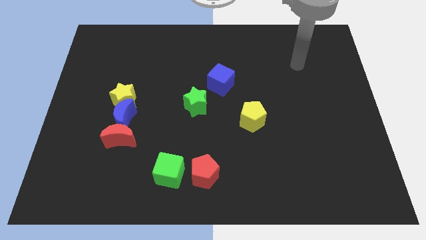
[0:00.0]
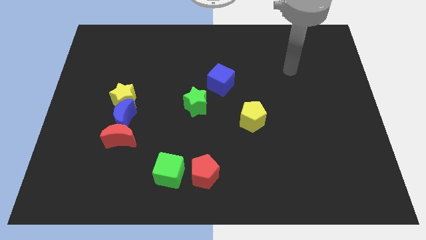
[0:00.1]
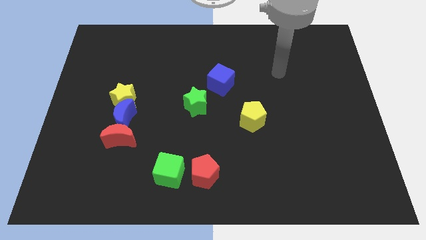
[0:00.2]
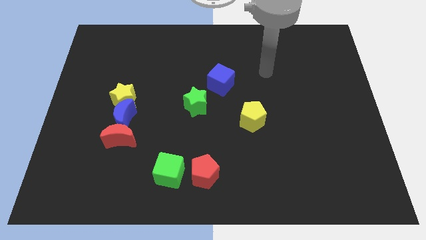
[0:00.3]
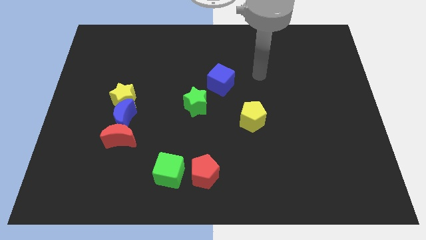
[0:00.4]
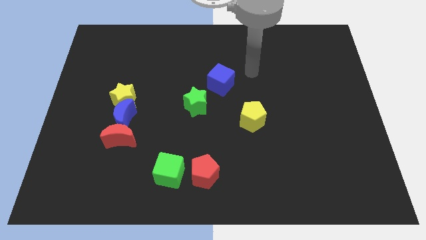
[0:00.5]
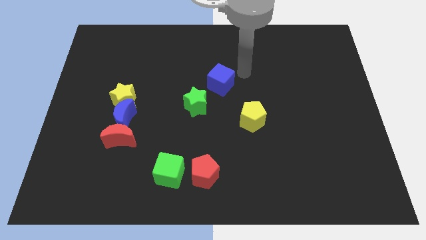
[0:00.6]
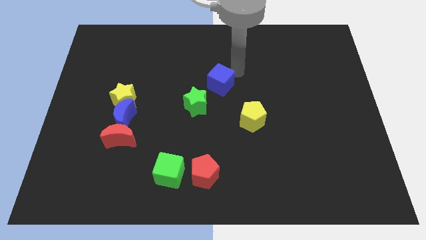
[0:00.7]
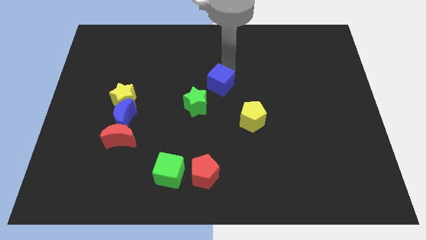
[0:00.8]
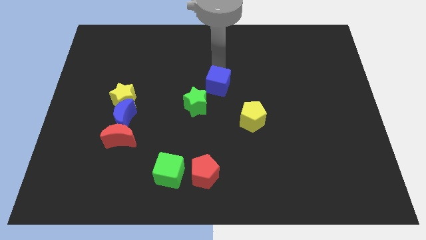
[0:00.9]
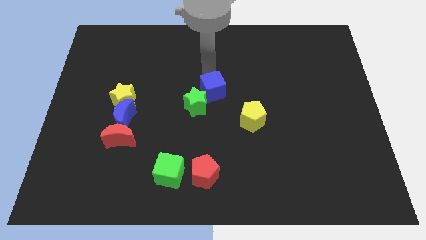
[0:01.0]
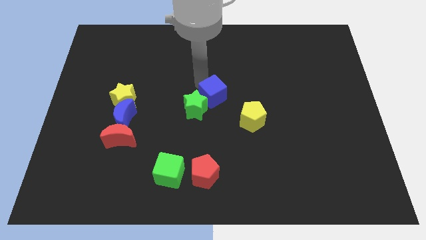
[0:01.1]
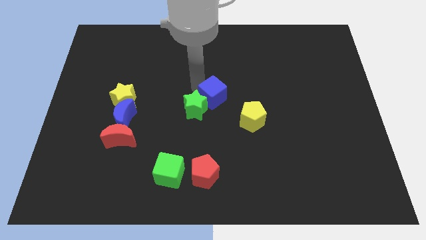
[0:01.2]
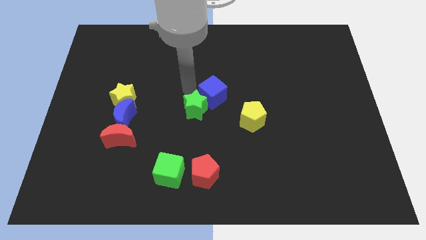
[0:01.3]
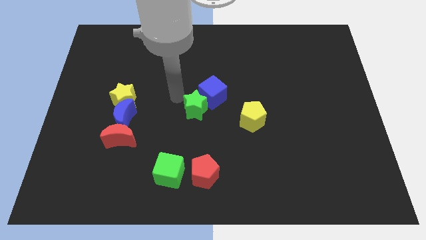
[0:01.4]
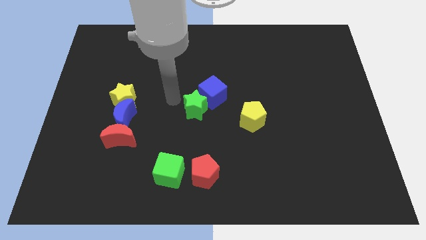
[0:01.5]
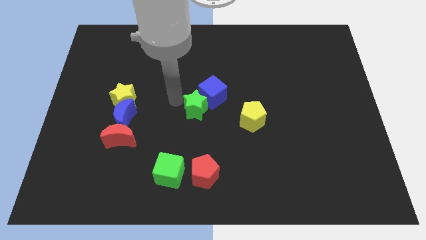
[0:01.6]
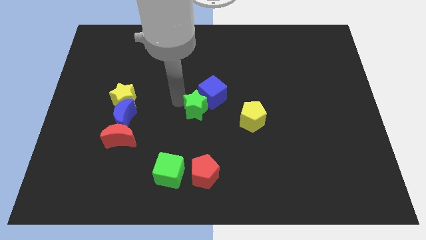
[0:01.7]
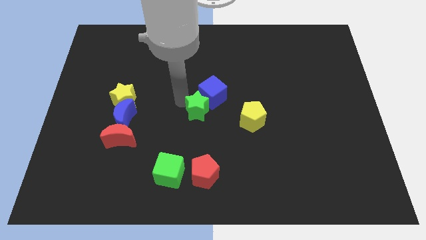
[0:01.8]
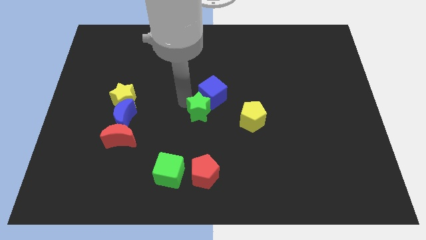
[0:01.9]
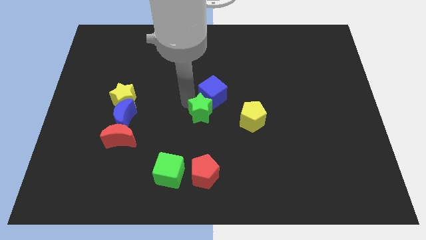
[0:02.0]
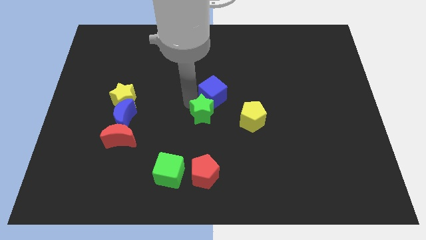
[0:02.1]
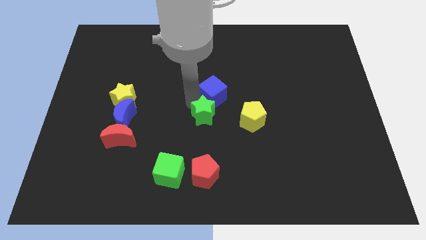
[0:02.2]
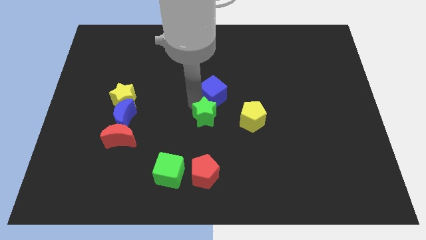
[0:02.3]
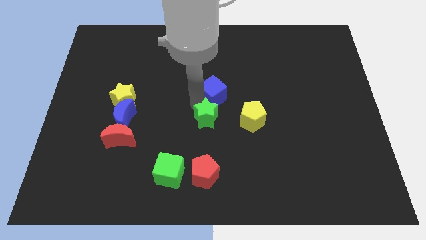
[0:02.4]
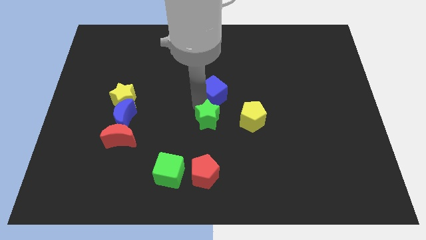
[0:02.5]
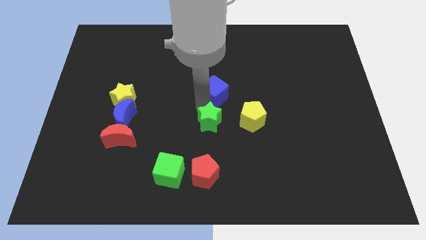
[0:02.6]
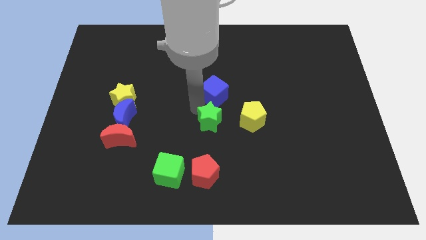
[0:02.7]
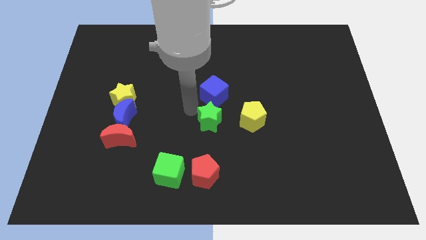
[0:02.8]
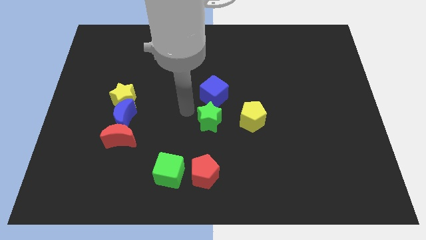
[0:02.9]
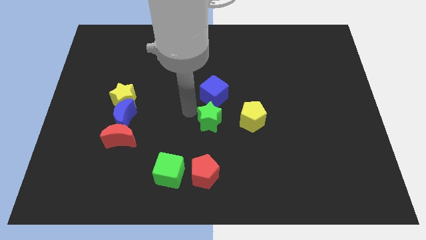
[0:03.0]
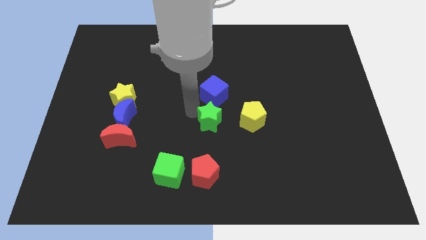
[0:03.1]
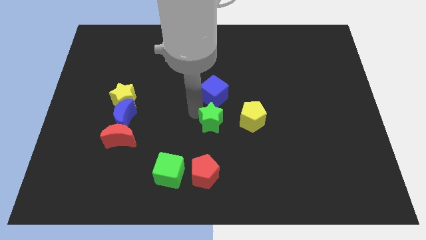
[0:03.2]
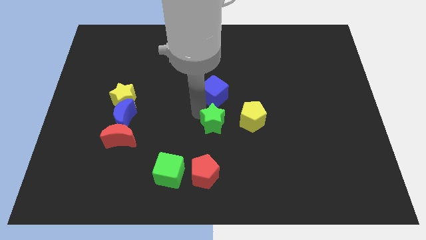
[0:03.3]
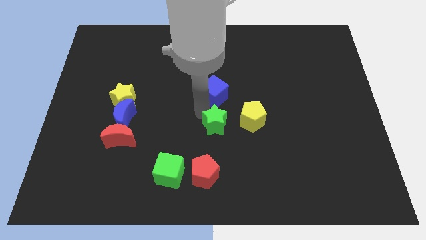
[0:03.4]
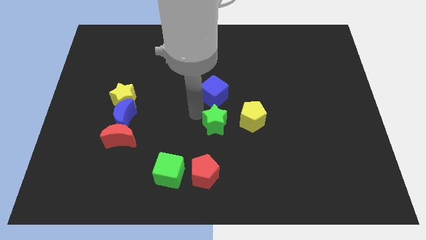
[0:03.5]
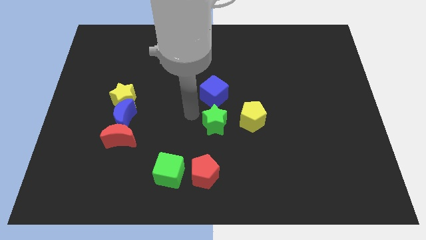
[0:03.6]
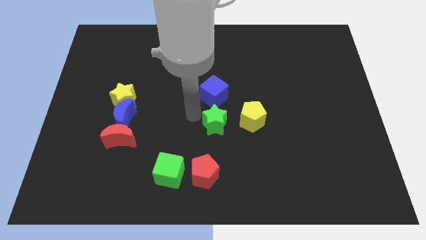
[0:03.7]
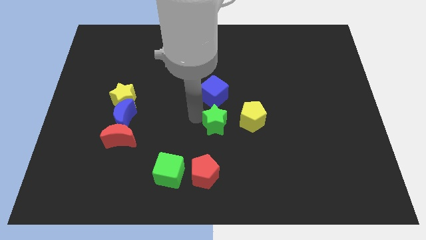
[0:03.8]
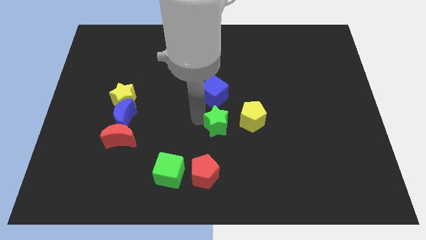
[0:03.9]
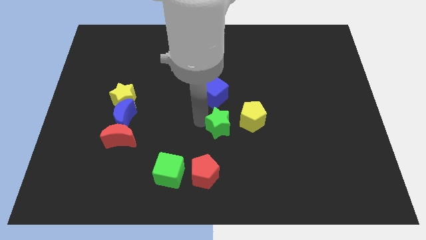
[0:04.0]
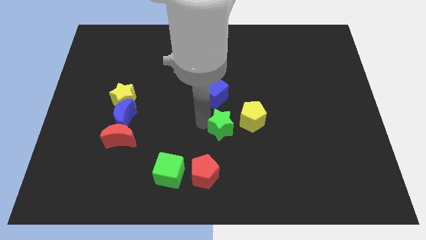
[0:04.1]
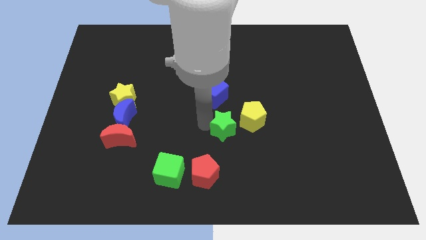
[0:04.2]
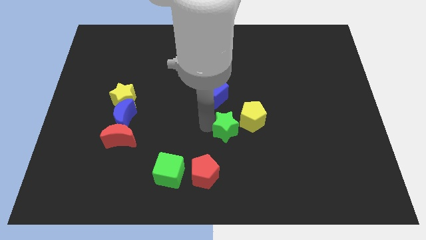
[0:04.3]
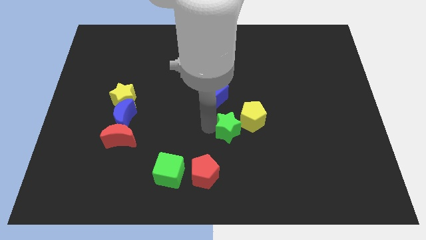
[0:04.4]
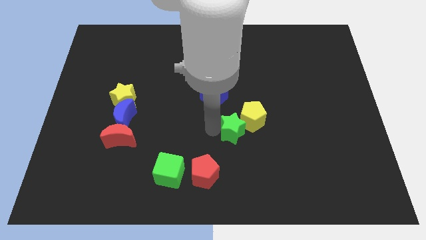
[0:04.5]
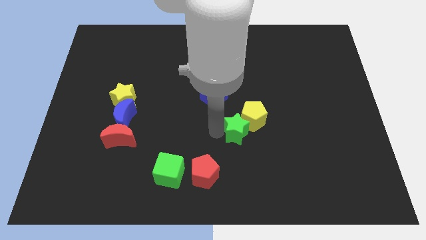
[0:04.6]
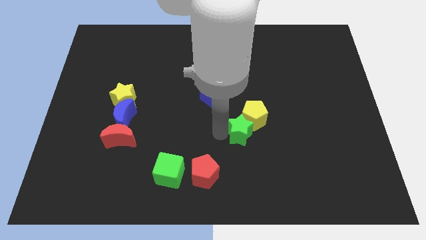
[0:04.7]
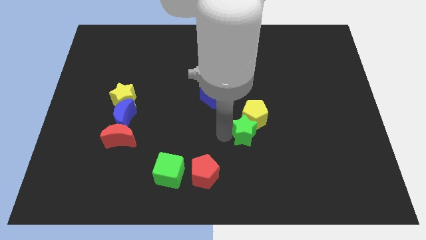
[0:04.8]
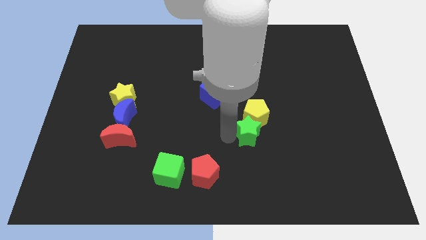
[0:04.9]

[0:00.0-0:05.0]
move the green star to the bottom right side of the yellow pentagon

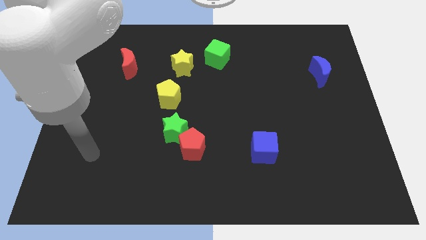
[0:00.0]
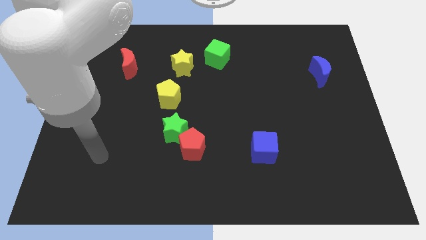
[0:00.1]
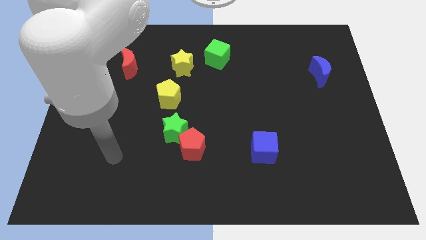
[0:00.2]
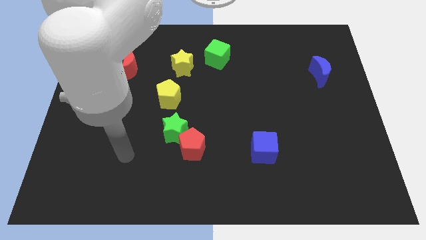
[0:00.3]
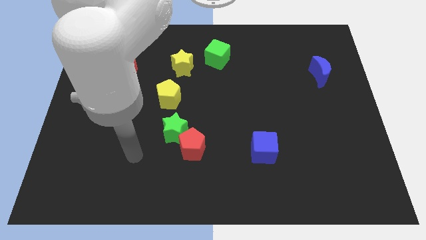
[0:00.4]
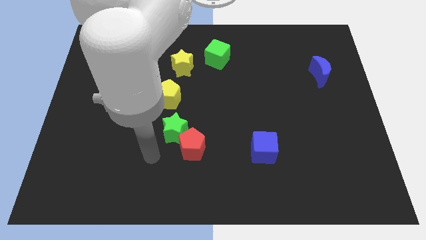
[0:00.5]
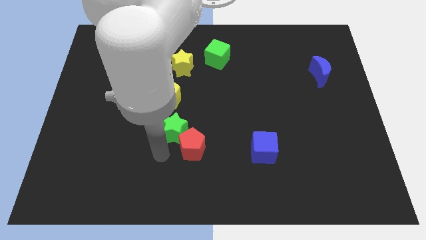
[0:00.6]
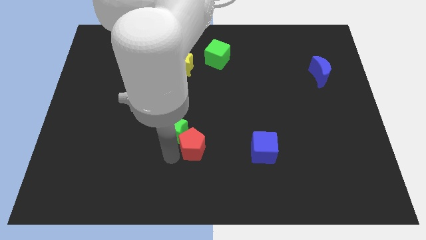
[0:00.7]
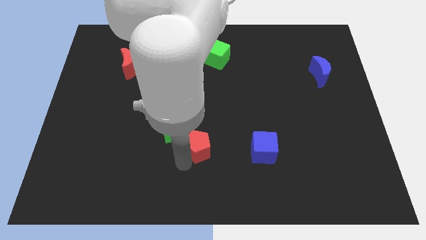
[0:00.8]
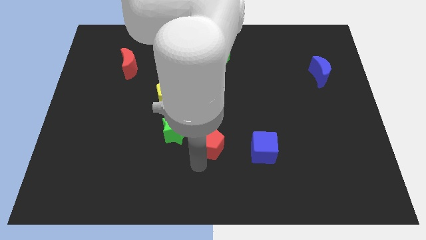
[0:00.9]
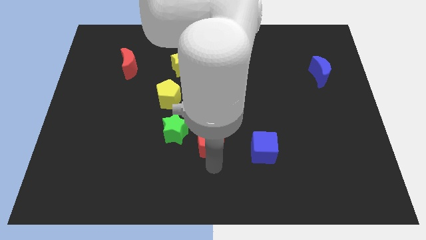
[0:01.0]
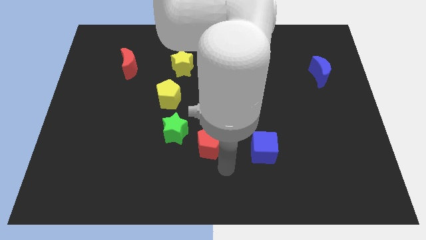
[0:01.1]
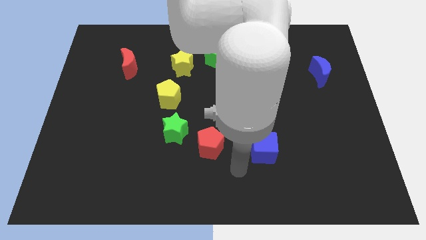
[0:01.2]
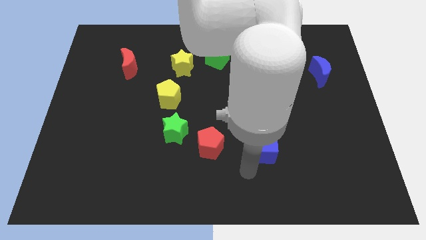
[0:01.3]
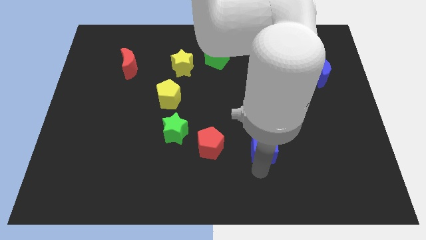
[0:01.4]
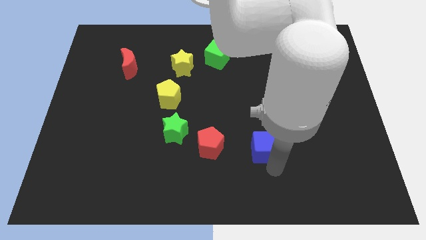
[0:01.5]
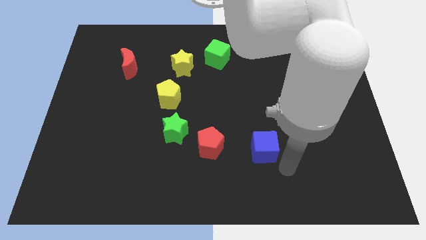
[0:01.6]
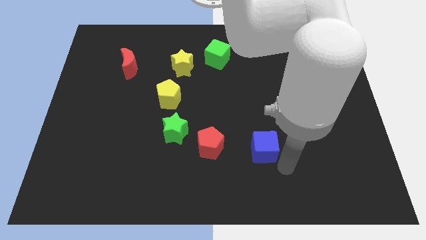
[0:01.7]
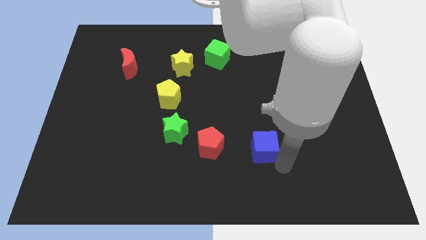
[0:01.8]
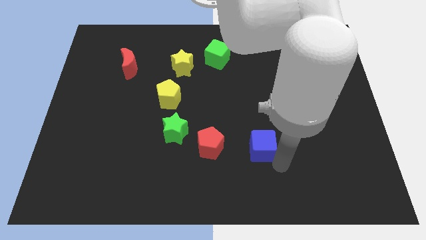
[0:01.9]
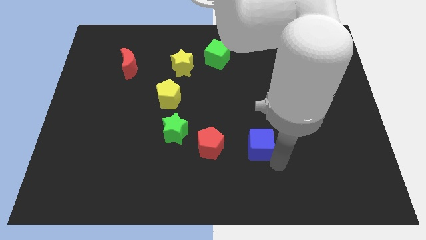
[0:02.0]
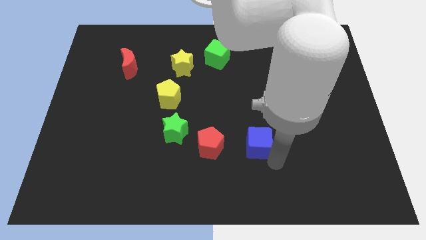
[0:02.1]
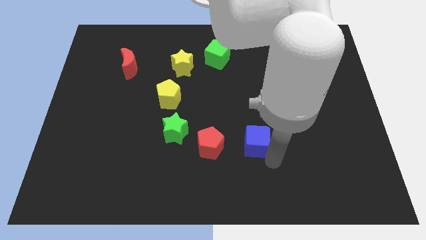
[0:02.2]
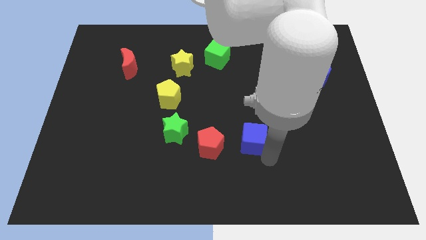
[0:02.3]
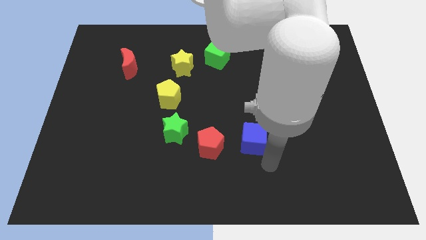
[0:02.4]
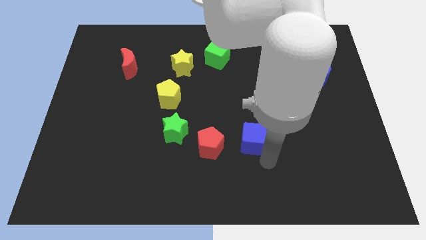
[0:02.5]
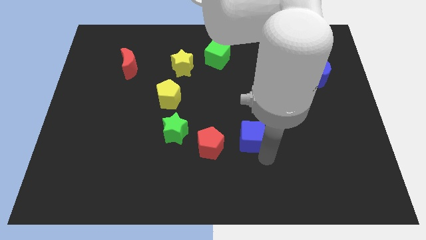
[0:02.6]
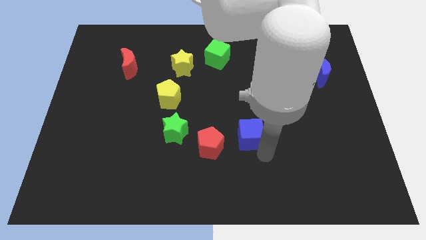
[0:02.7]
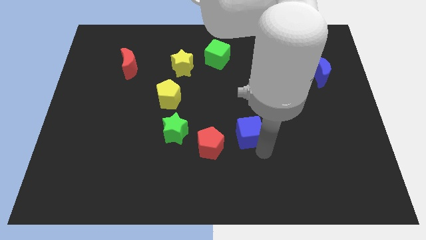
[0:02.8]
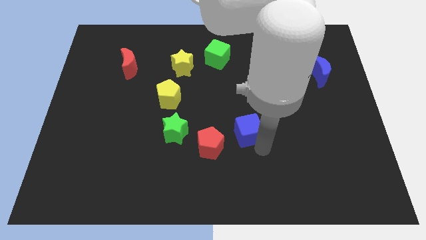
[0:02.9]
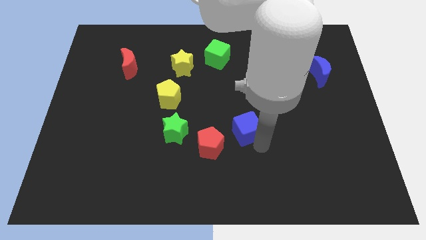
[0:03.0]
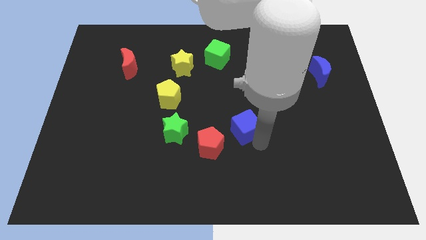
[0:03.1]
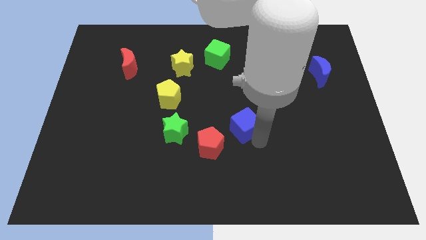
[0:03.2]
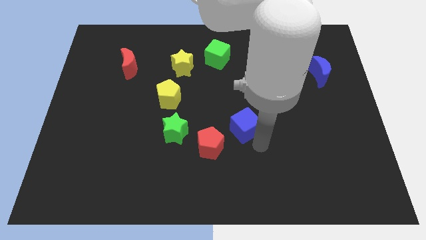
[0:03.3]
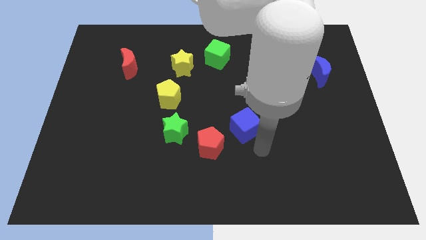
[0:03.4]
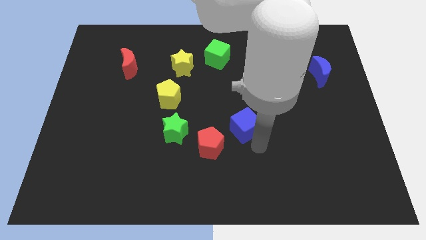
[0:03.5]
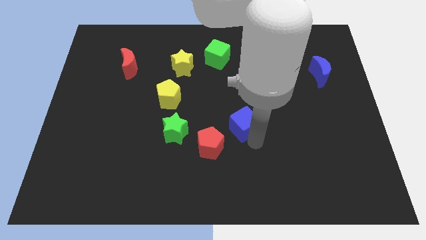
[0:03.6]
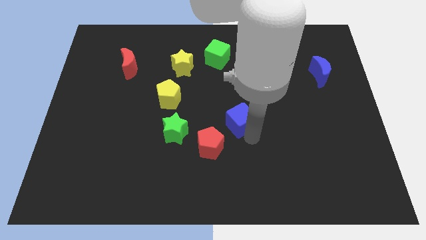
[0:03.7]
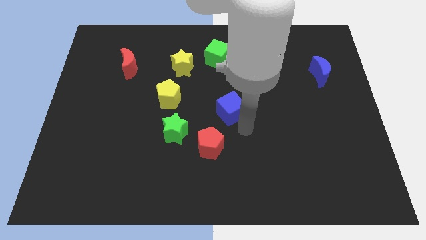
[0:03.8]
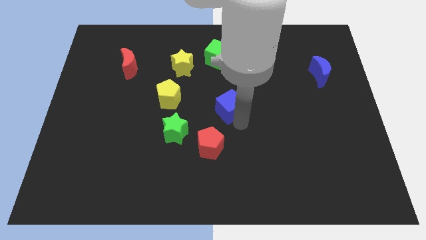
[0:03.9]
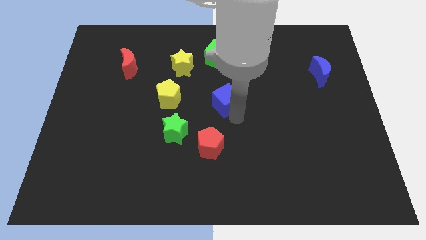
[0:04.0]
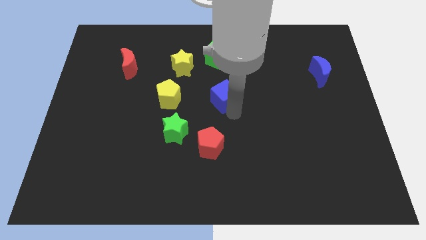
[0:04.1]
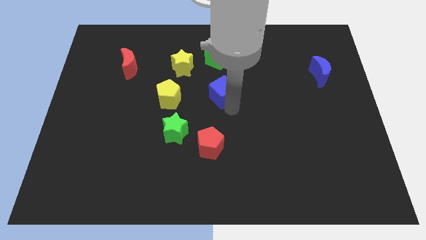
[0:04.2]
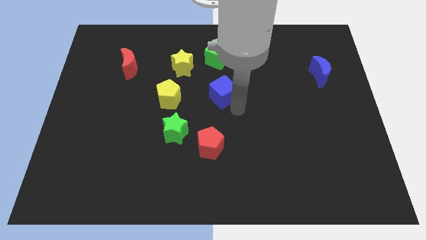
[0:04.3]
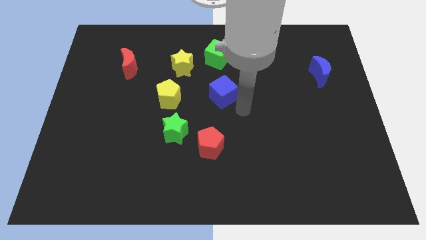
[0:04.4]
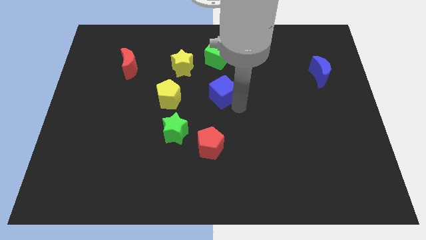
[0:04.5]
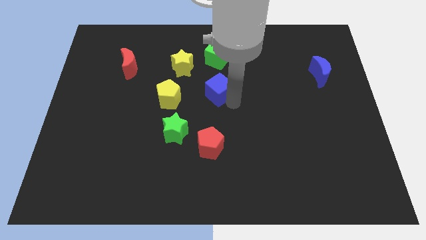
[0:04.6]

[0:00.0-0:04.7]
slide the blue cube diagonally down and to the right of the yellow star
